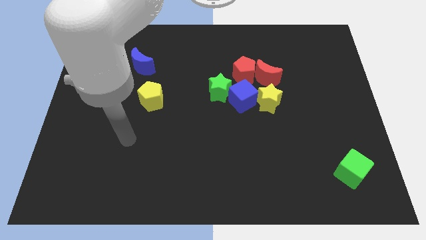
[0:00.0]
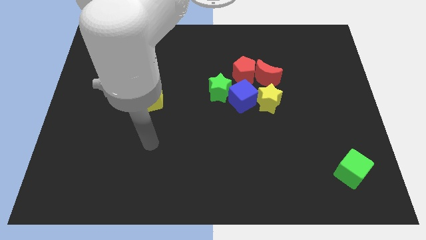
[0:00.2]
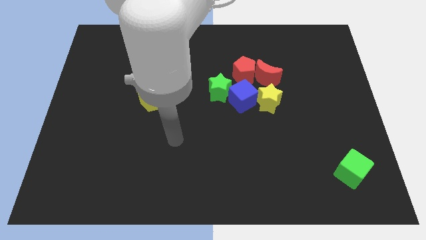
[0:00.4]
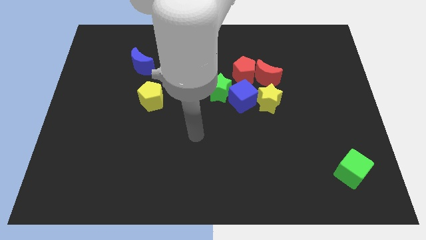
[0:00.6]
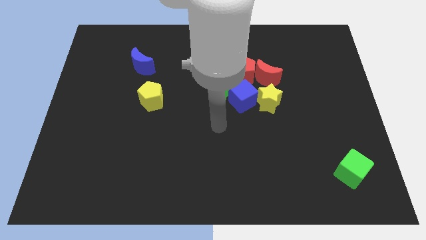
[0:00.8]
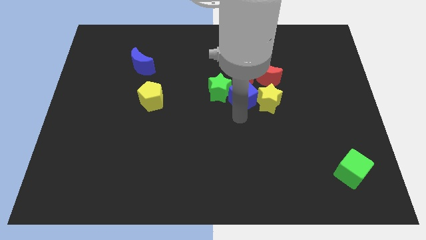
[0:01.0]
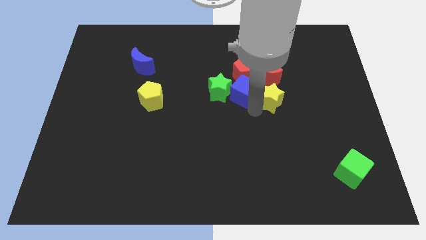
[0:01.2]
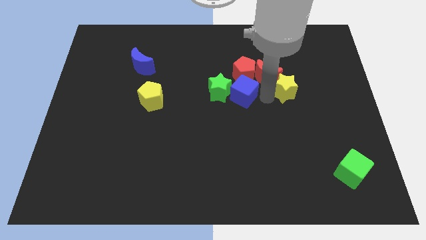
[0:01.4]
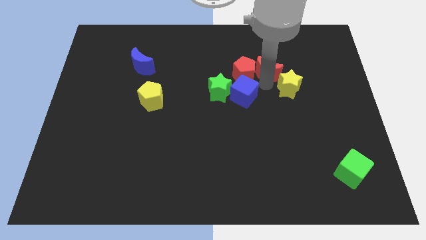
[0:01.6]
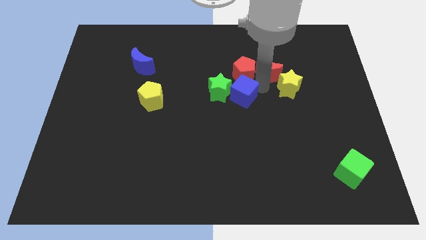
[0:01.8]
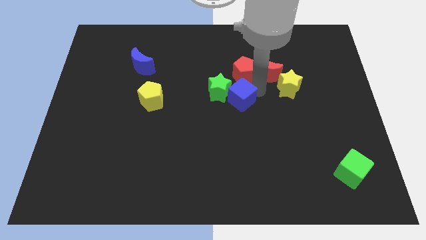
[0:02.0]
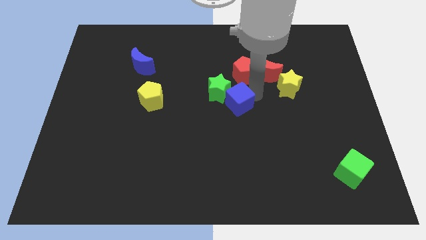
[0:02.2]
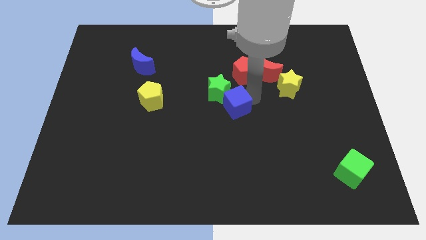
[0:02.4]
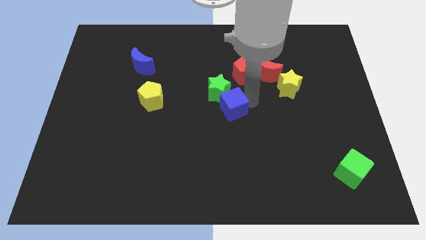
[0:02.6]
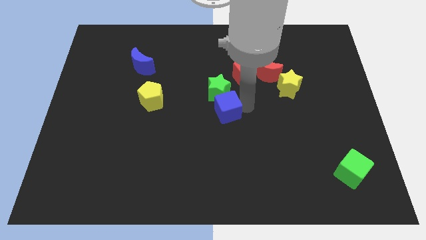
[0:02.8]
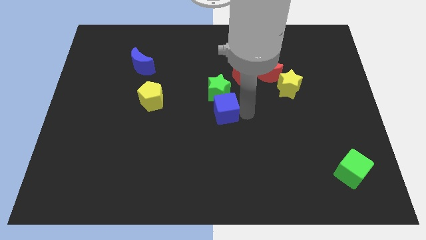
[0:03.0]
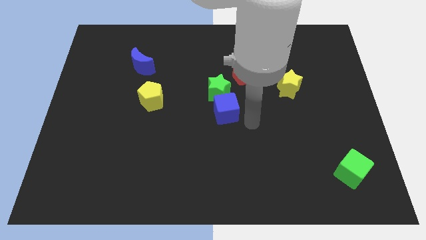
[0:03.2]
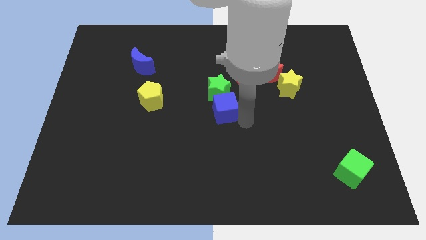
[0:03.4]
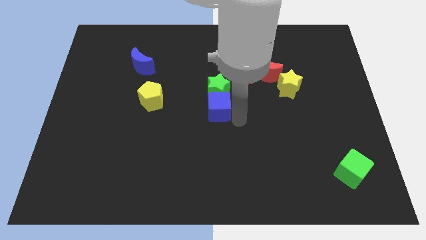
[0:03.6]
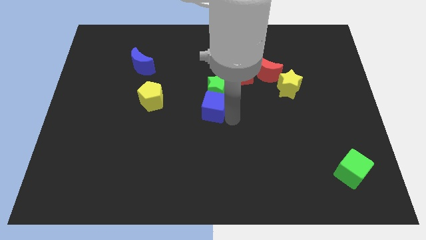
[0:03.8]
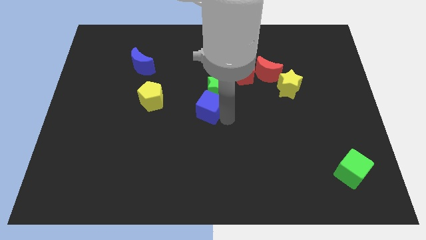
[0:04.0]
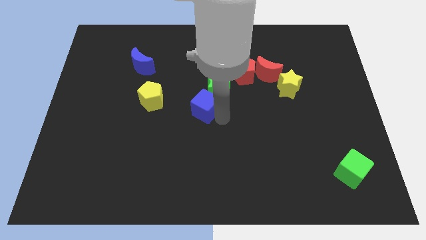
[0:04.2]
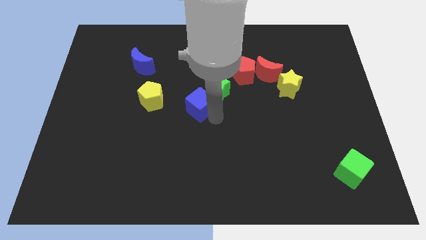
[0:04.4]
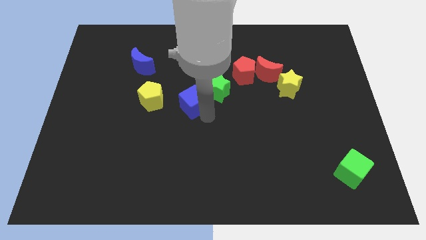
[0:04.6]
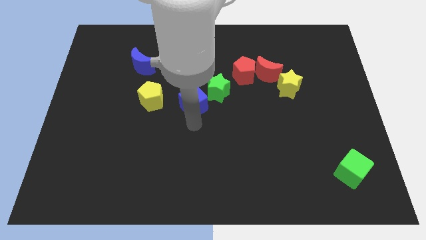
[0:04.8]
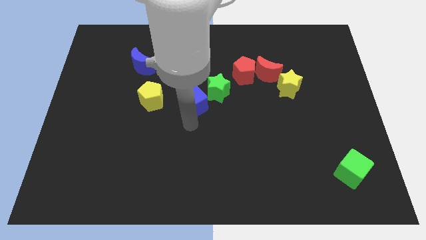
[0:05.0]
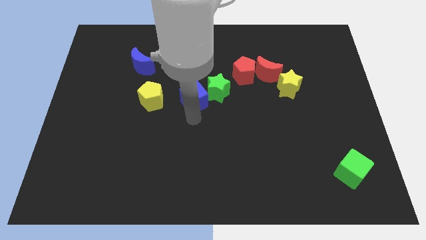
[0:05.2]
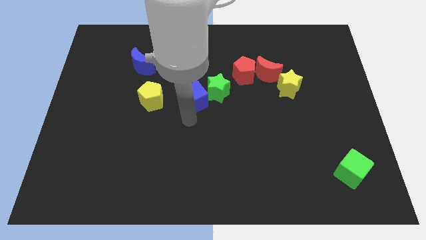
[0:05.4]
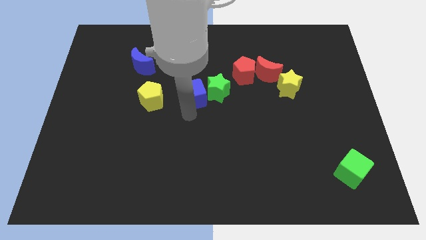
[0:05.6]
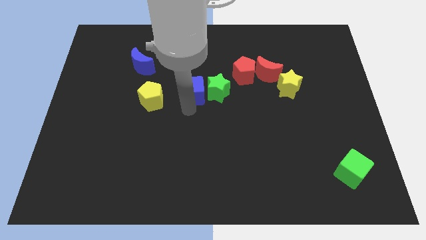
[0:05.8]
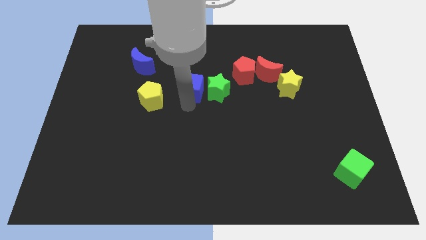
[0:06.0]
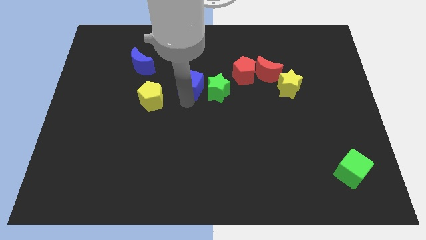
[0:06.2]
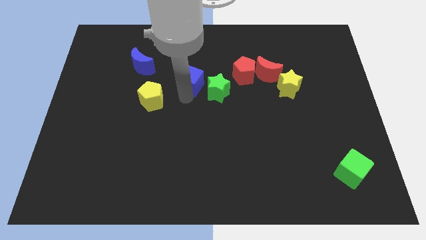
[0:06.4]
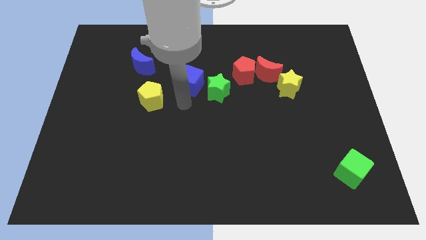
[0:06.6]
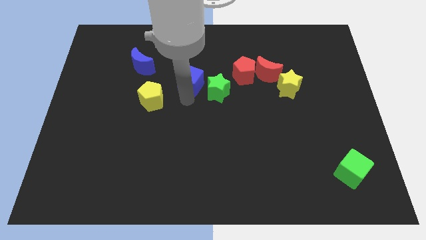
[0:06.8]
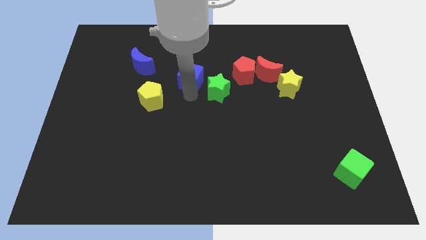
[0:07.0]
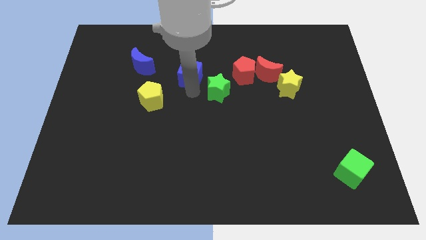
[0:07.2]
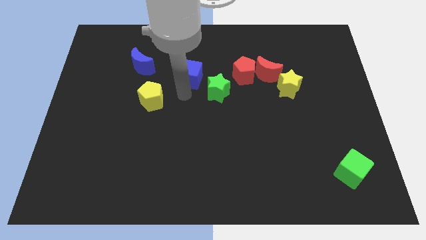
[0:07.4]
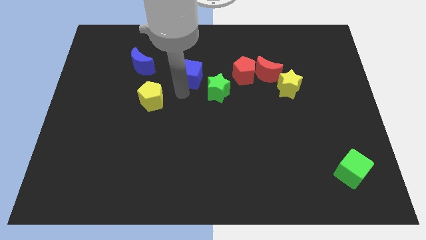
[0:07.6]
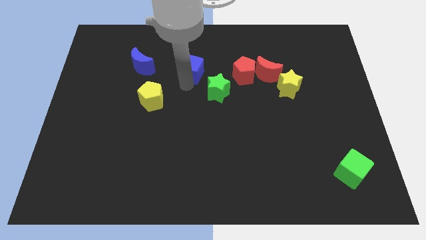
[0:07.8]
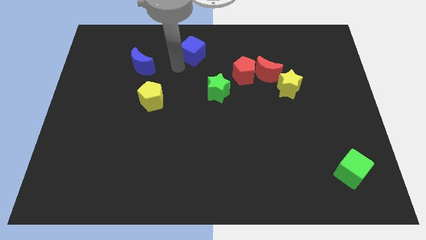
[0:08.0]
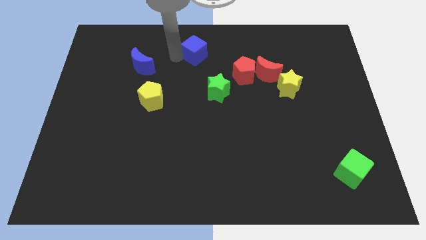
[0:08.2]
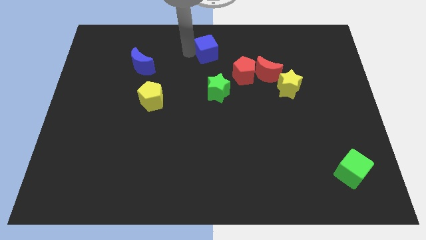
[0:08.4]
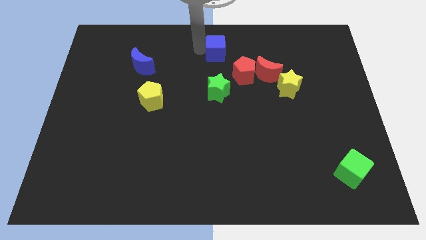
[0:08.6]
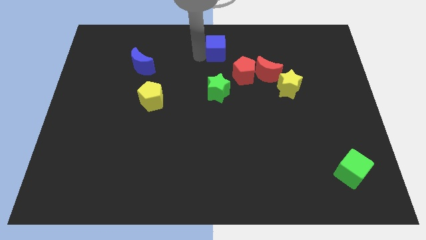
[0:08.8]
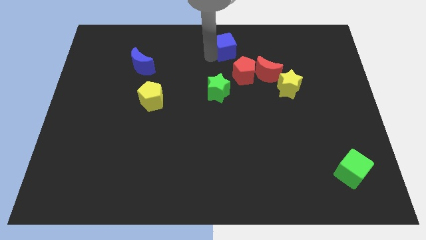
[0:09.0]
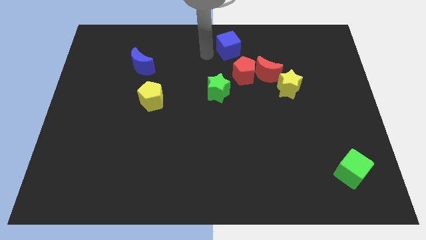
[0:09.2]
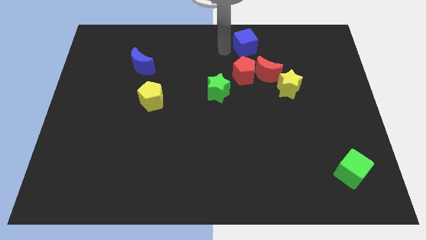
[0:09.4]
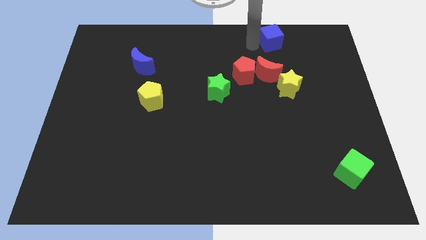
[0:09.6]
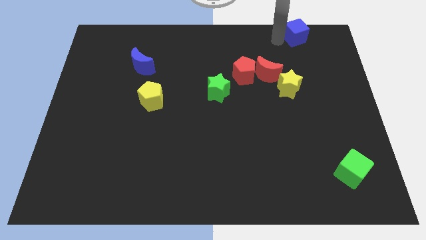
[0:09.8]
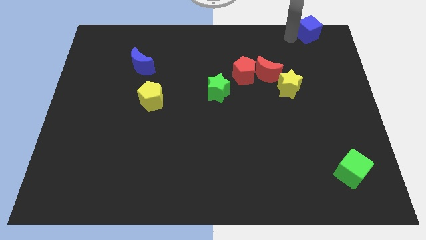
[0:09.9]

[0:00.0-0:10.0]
move the blue cube to the top right corner
